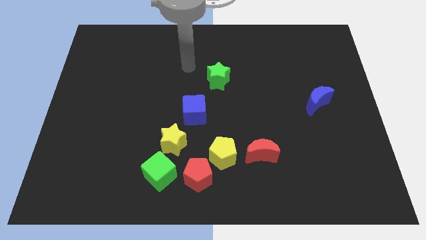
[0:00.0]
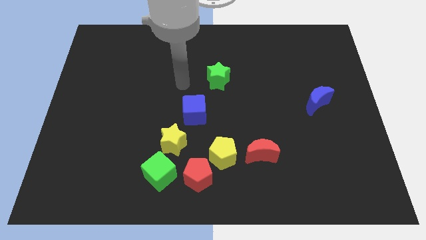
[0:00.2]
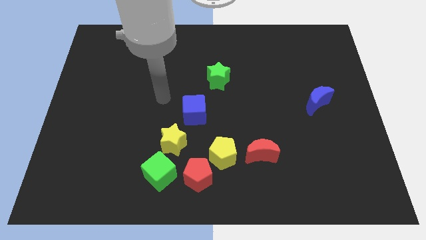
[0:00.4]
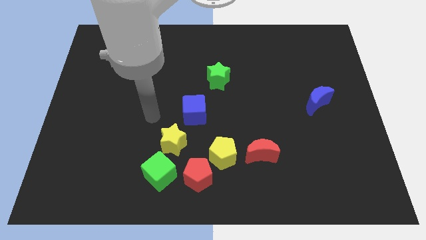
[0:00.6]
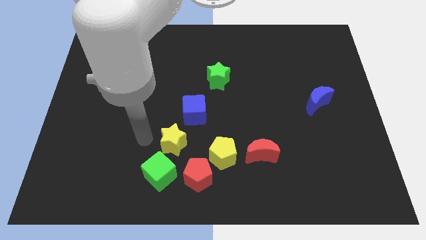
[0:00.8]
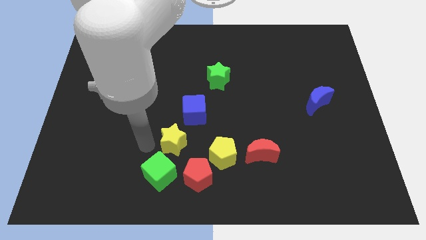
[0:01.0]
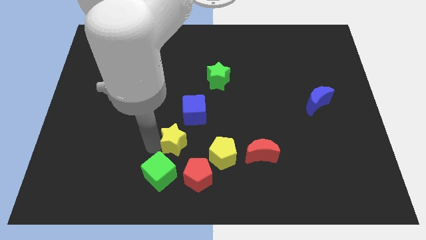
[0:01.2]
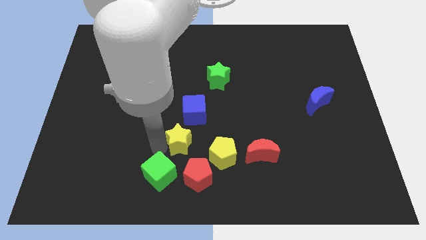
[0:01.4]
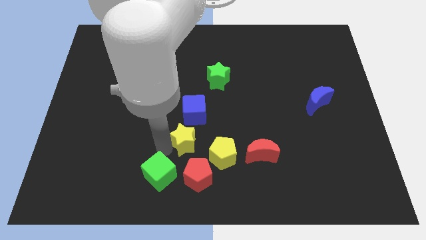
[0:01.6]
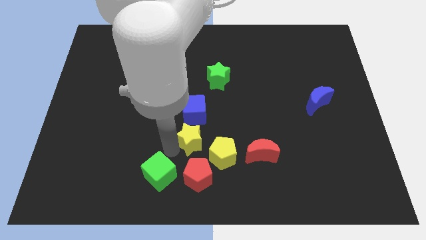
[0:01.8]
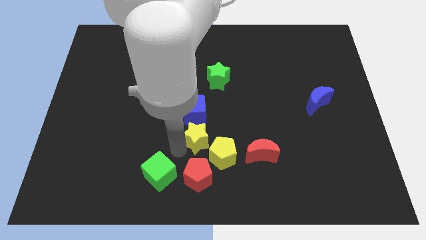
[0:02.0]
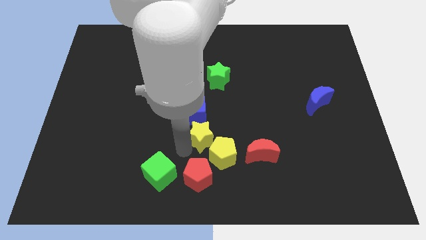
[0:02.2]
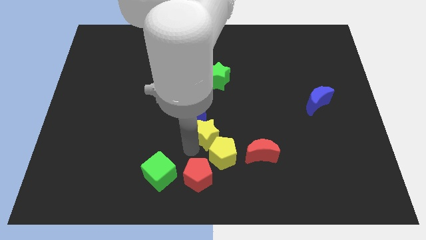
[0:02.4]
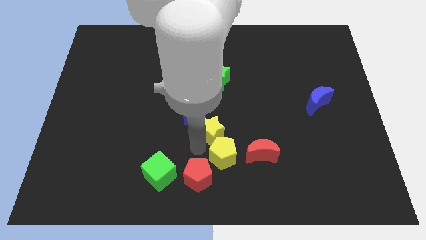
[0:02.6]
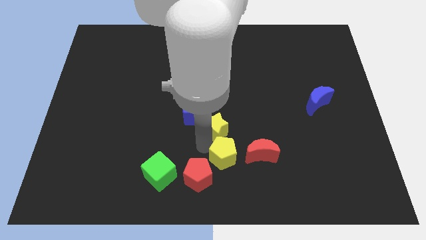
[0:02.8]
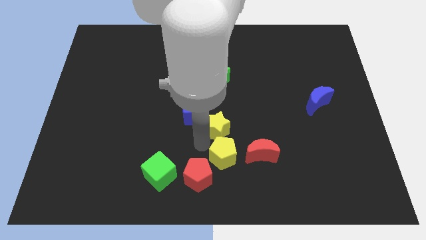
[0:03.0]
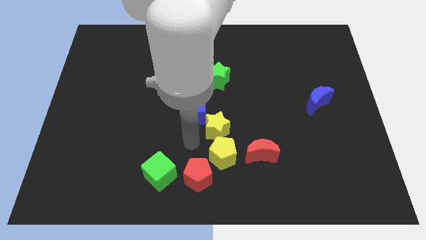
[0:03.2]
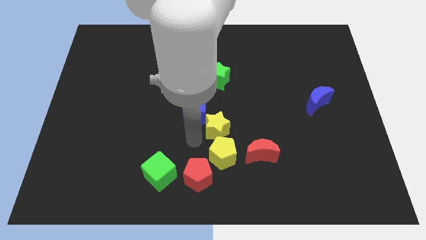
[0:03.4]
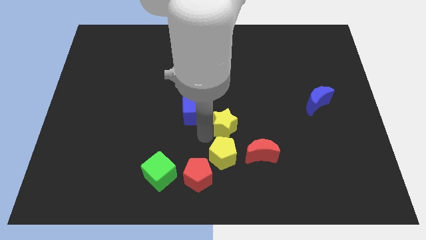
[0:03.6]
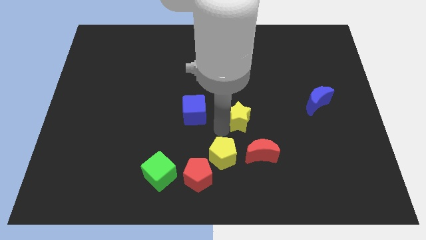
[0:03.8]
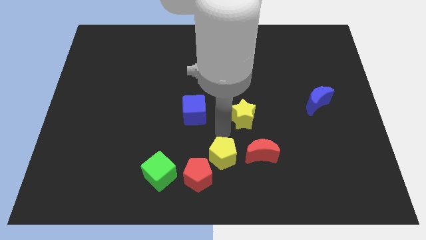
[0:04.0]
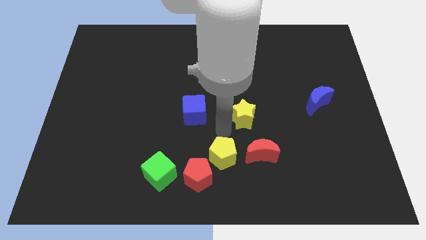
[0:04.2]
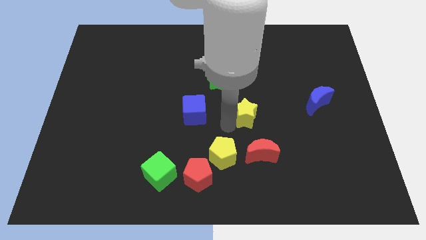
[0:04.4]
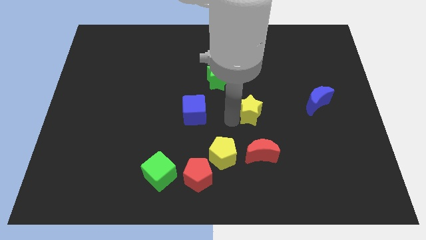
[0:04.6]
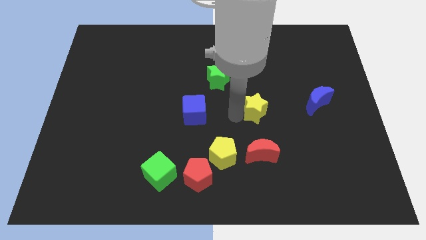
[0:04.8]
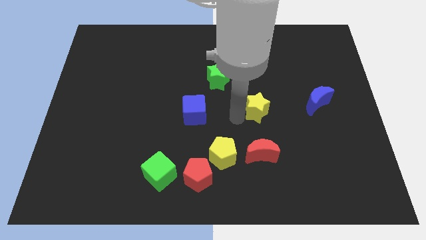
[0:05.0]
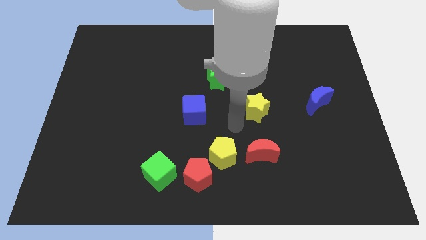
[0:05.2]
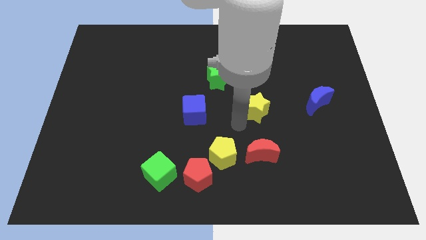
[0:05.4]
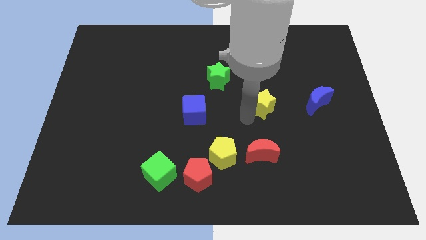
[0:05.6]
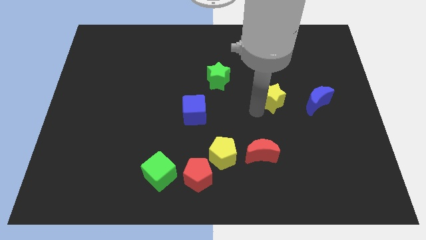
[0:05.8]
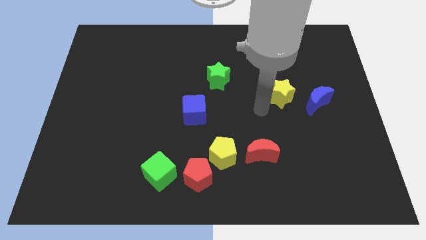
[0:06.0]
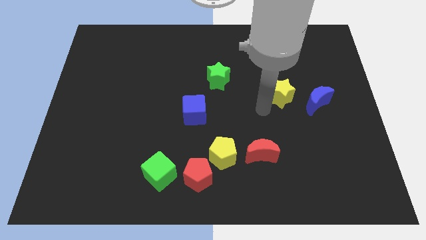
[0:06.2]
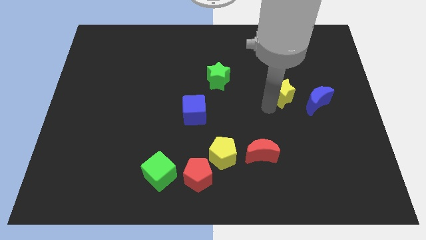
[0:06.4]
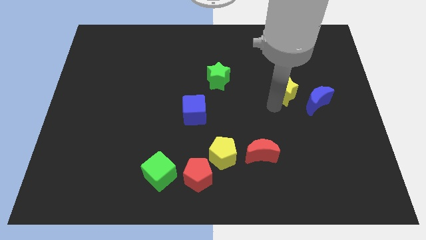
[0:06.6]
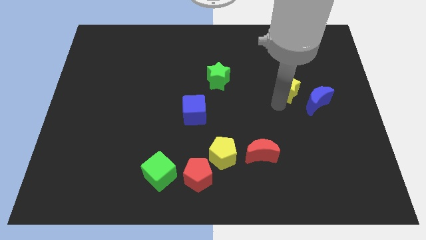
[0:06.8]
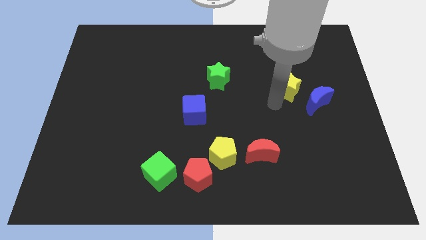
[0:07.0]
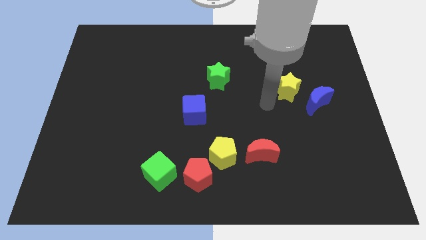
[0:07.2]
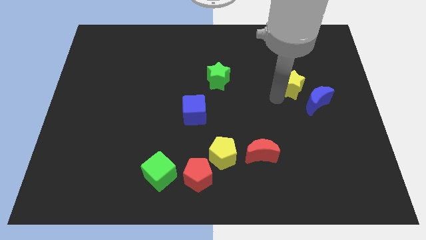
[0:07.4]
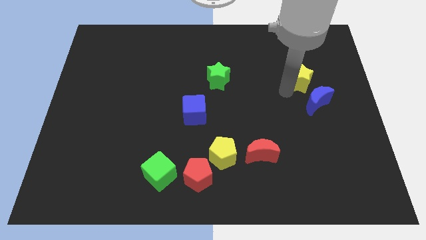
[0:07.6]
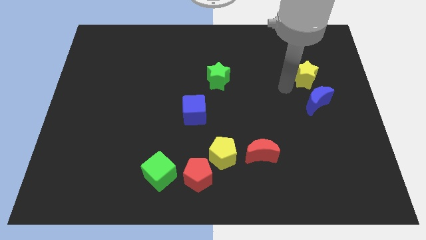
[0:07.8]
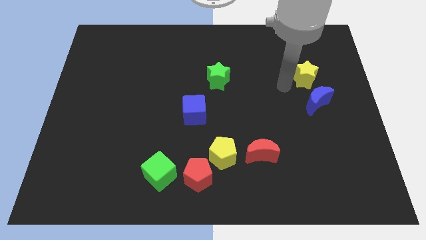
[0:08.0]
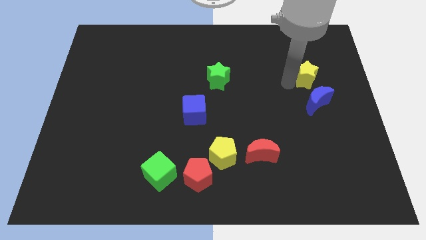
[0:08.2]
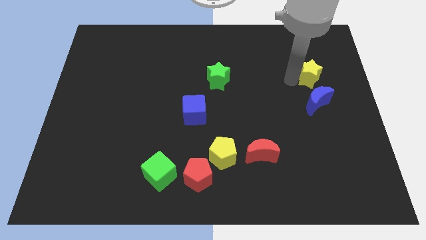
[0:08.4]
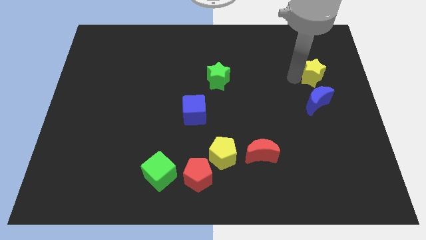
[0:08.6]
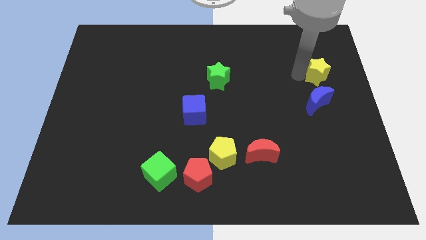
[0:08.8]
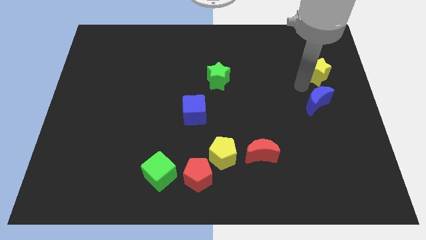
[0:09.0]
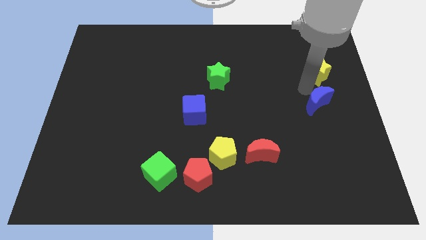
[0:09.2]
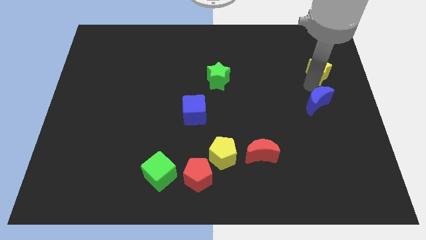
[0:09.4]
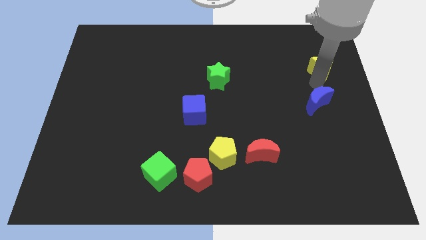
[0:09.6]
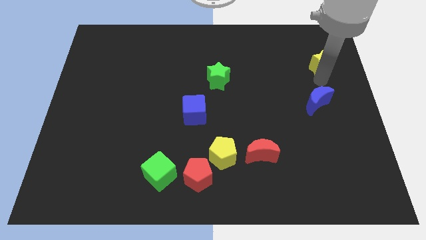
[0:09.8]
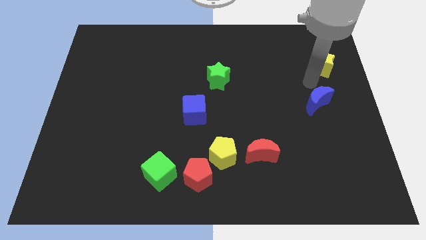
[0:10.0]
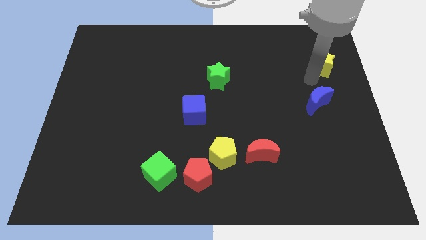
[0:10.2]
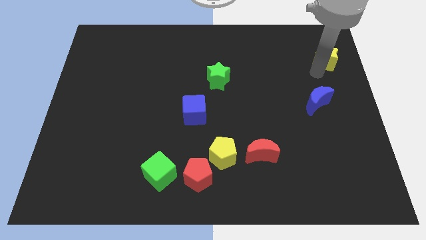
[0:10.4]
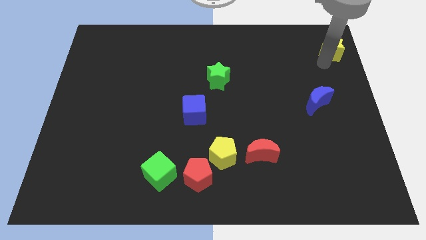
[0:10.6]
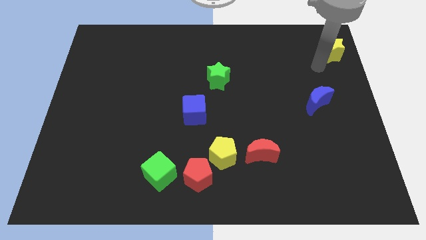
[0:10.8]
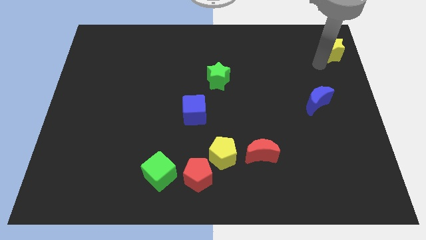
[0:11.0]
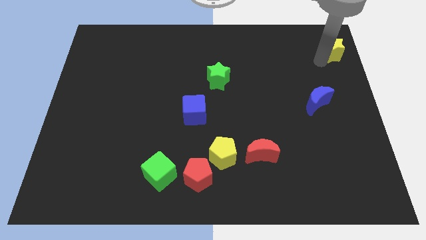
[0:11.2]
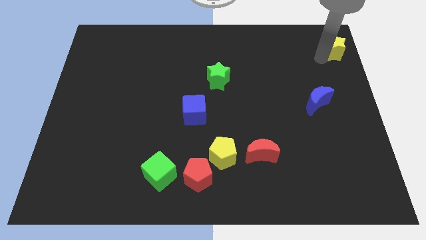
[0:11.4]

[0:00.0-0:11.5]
slide the yellow star to the upper right corner
